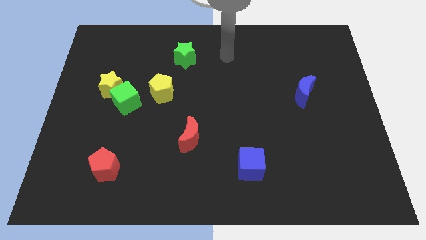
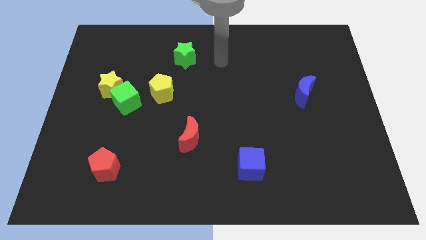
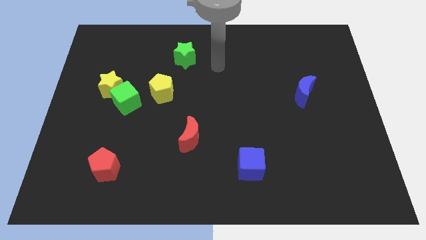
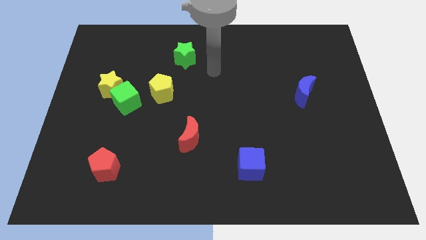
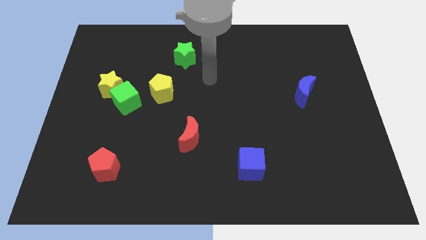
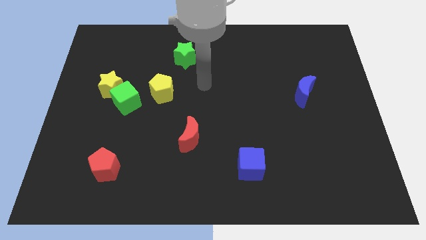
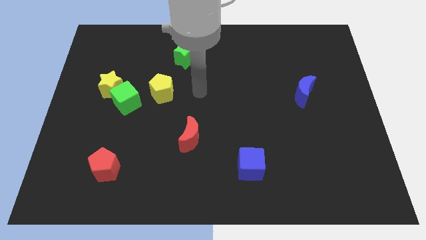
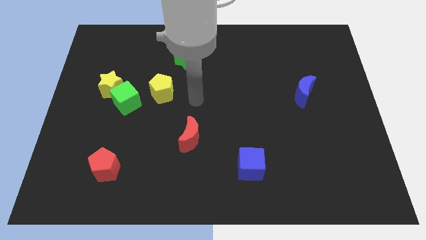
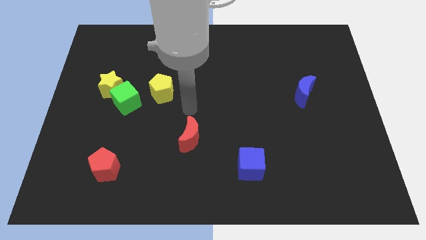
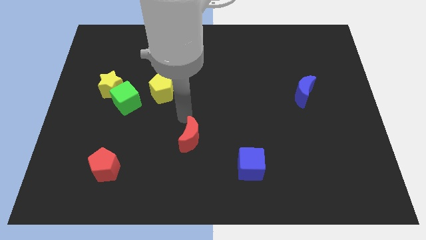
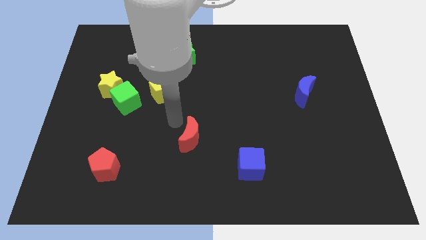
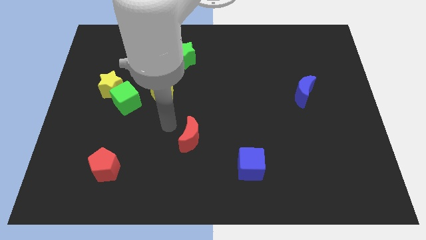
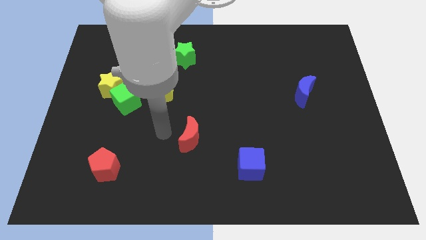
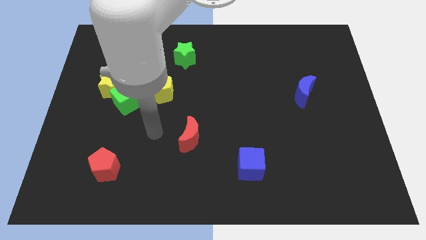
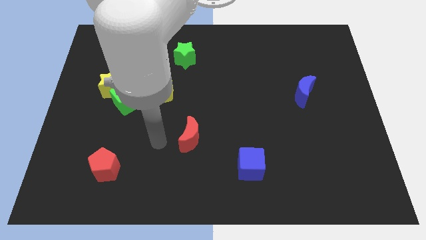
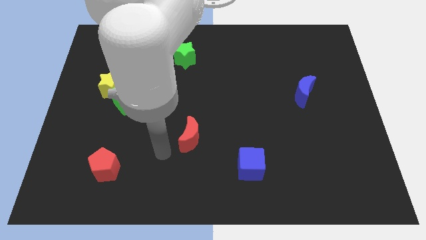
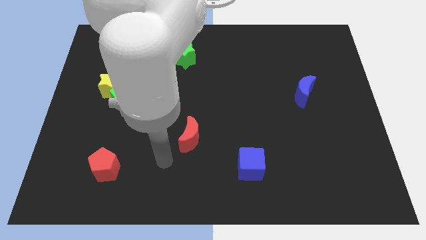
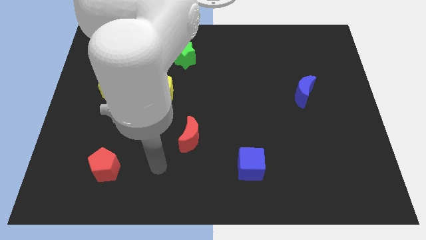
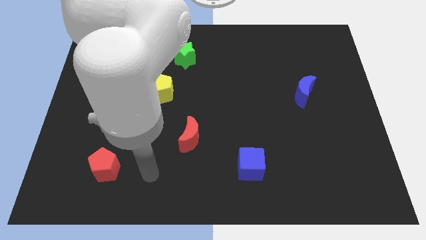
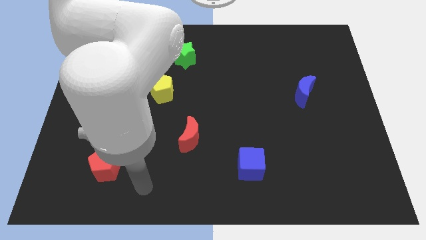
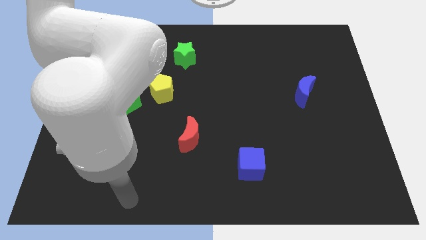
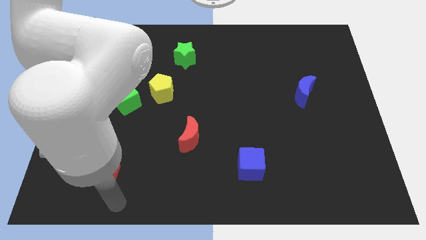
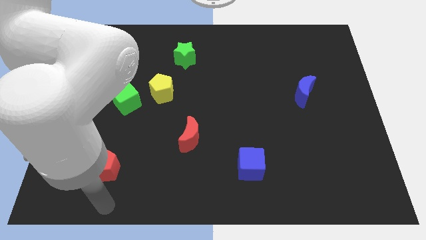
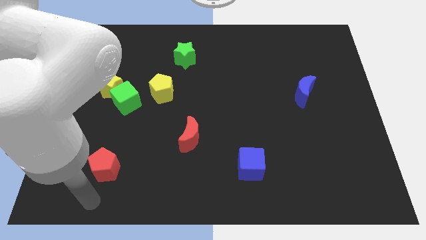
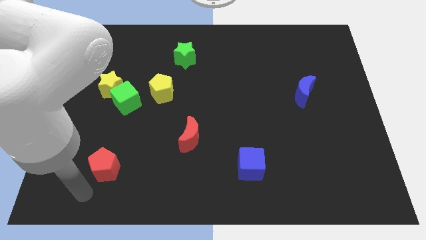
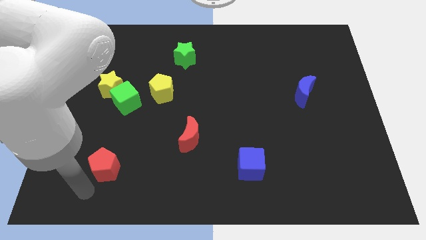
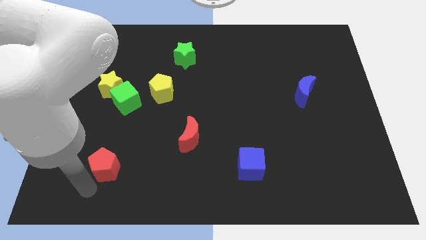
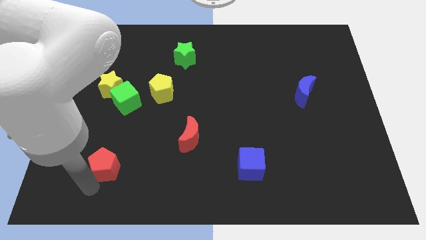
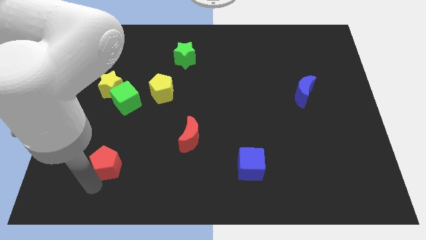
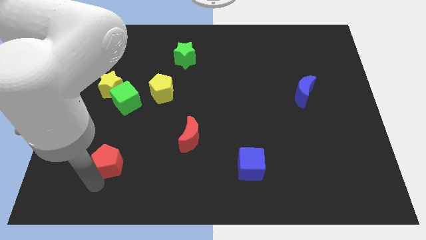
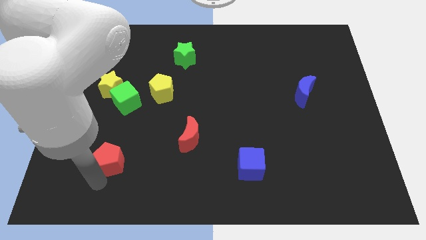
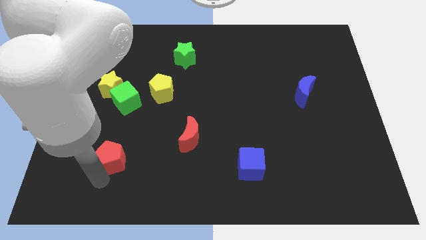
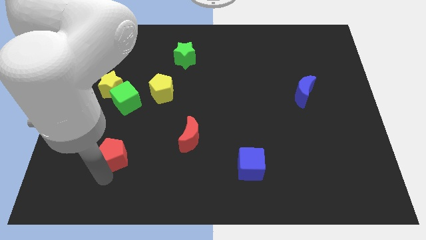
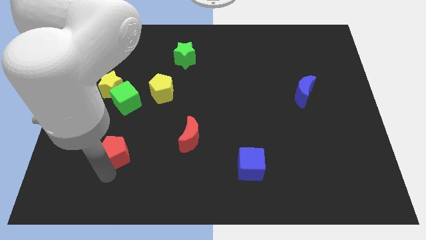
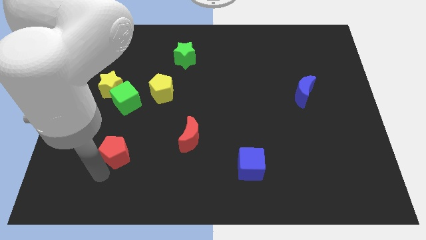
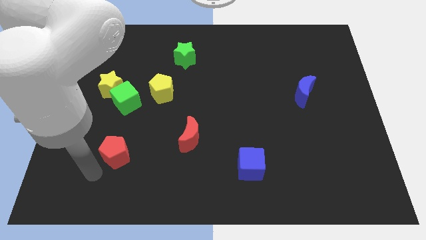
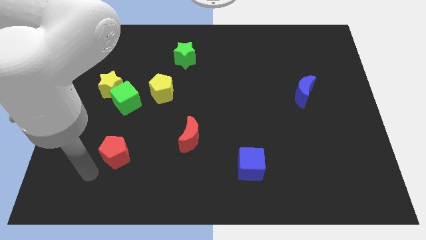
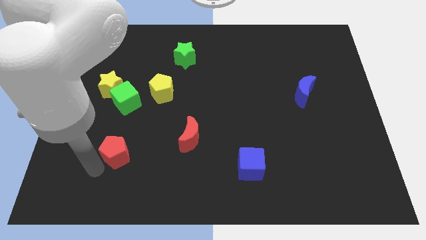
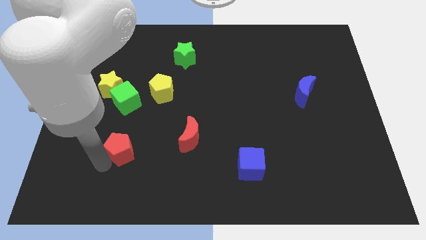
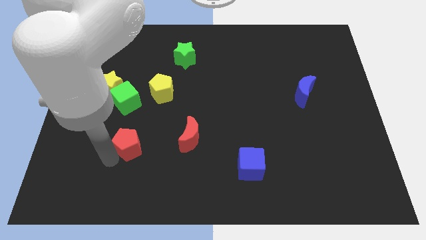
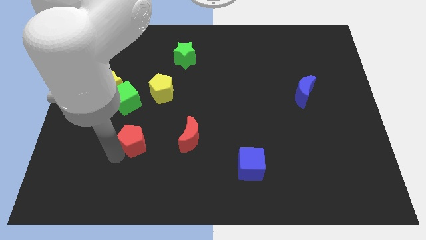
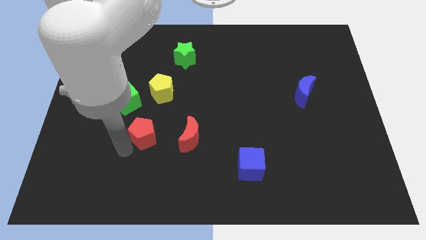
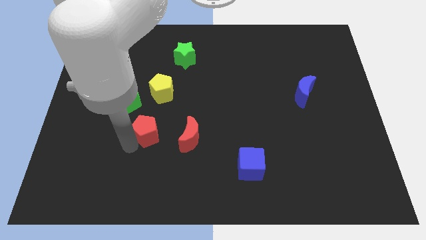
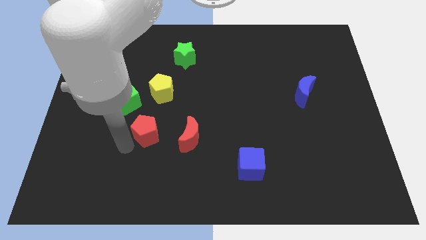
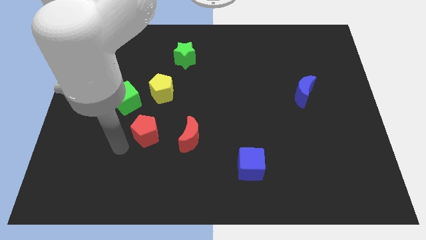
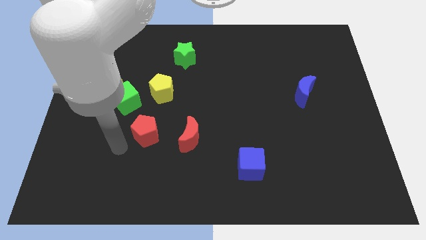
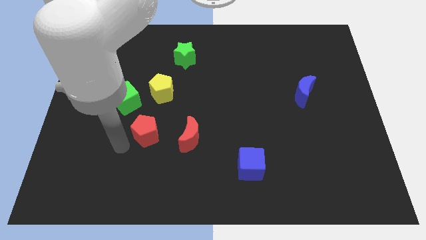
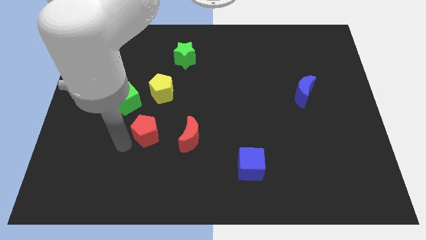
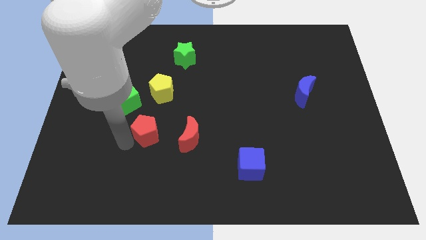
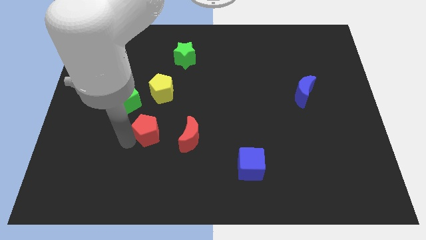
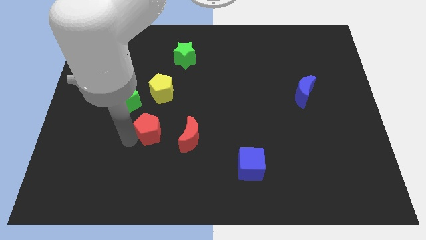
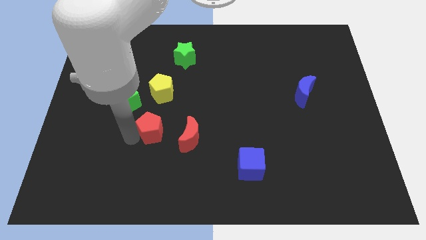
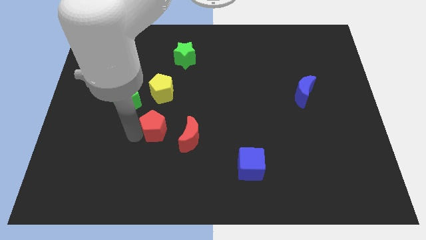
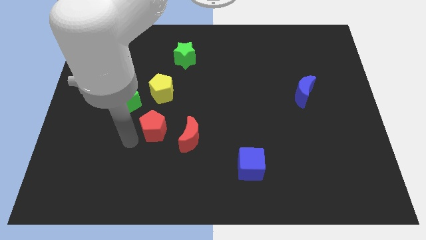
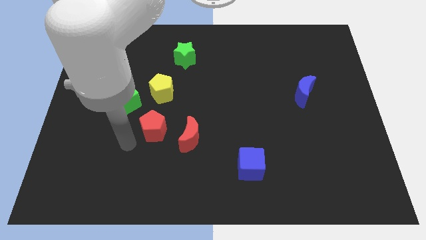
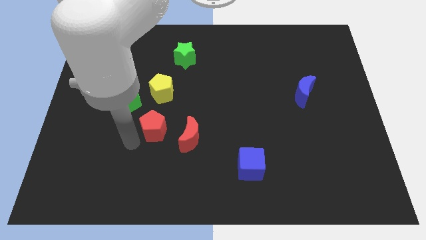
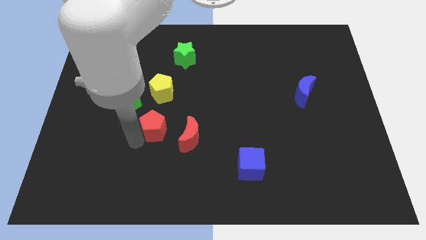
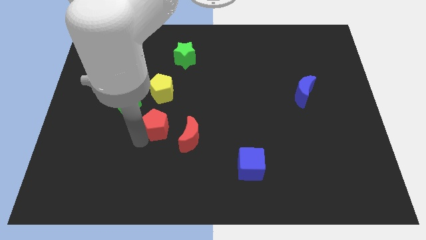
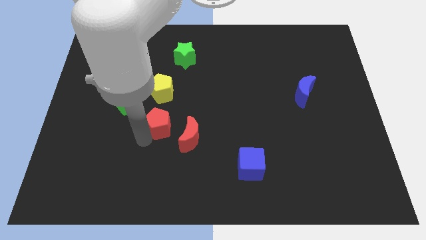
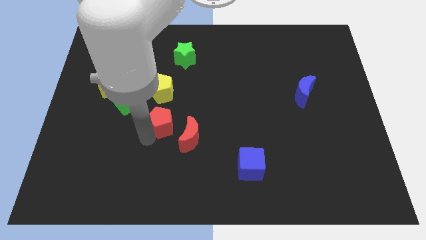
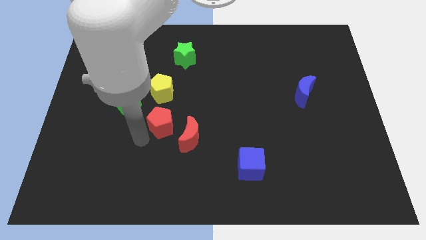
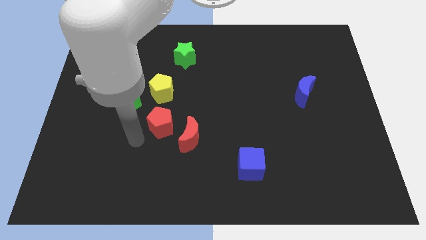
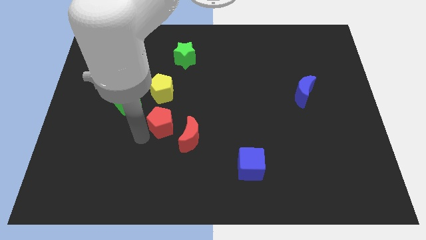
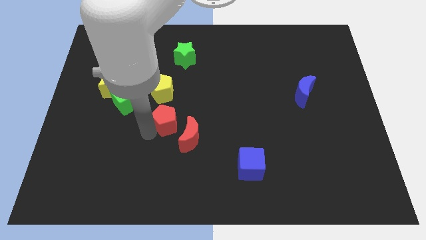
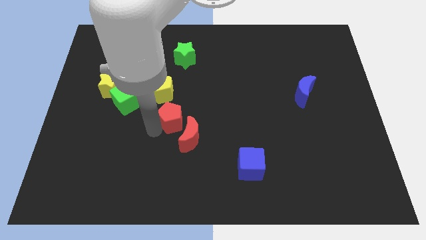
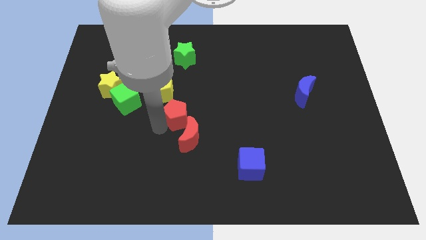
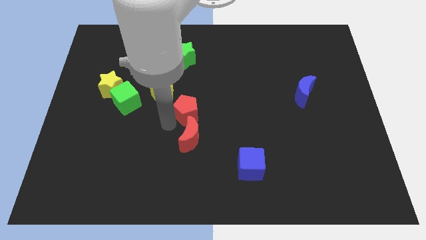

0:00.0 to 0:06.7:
push the red pentagon diagonally up and right

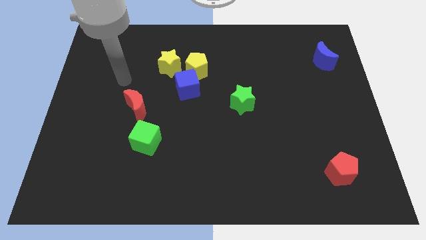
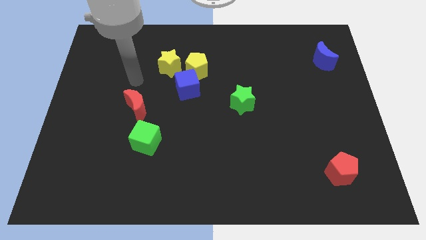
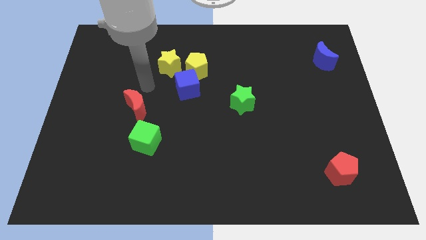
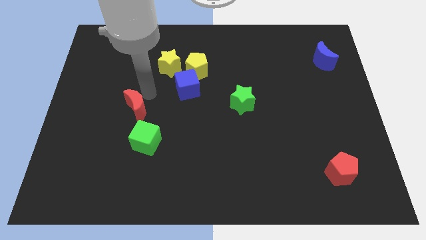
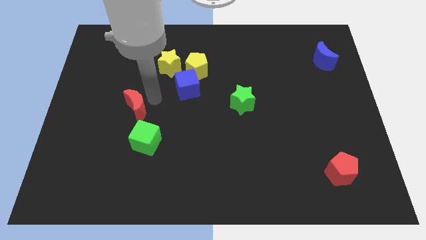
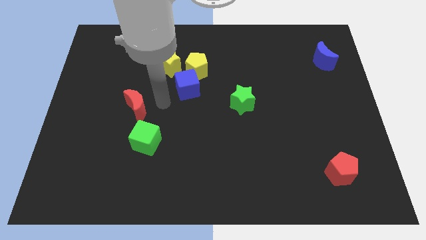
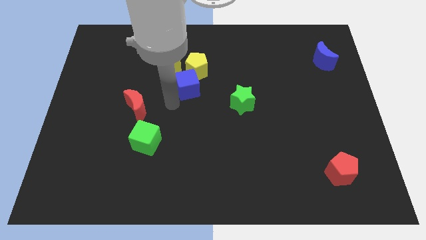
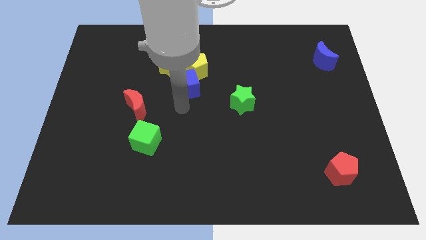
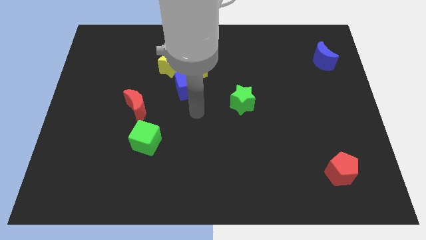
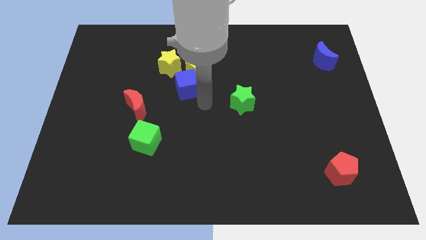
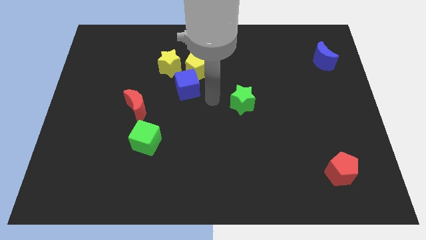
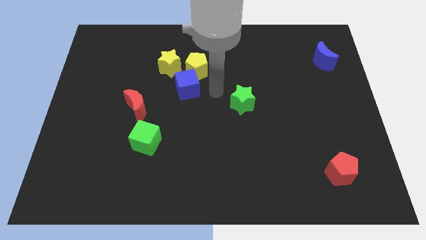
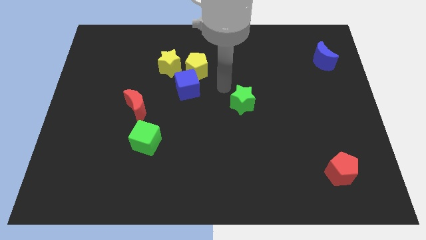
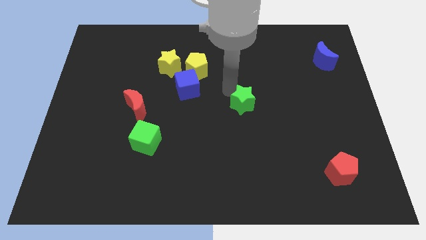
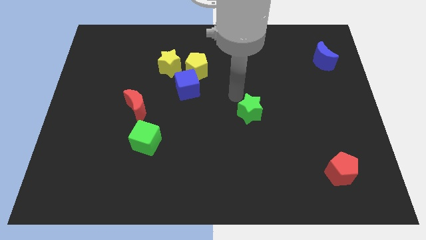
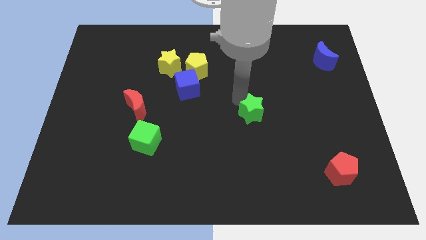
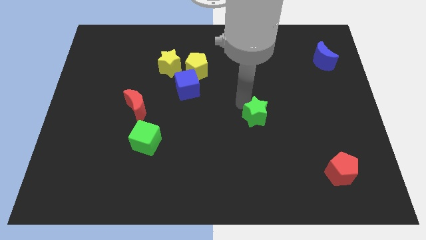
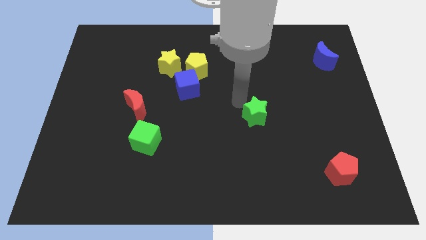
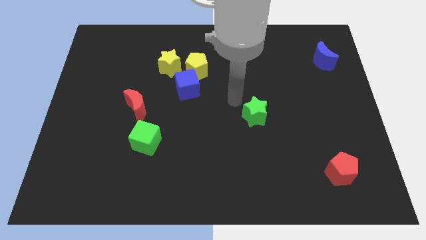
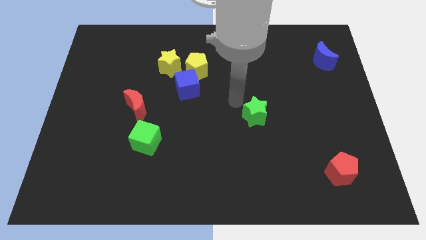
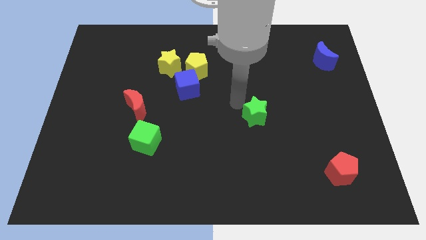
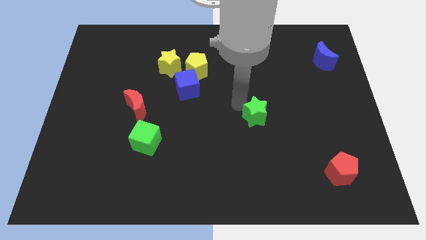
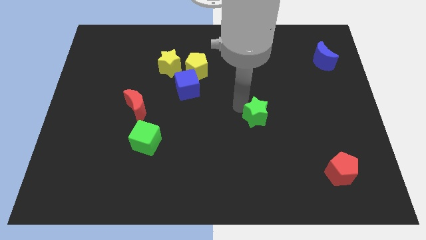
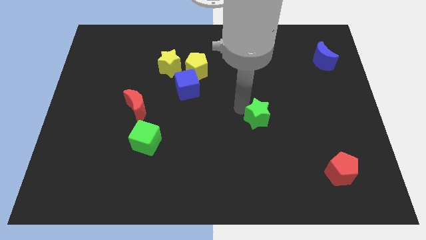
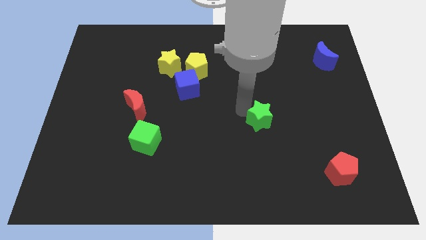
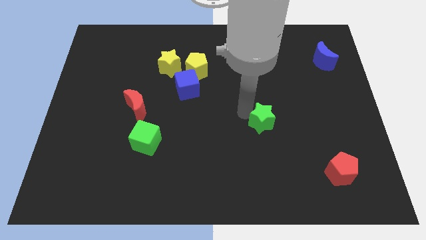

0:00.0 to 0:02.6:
move the green star a little bit down and right
